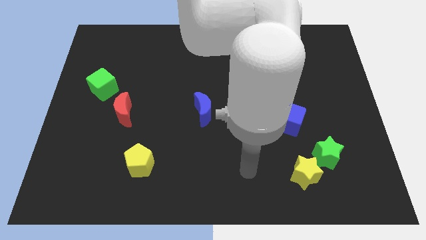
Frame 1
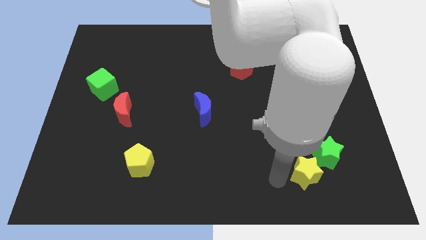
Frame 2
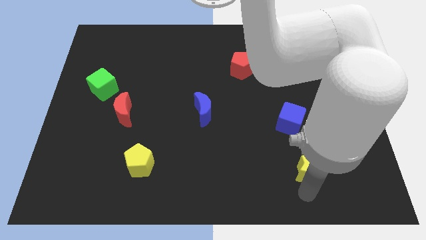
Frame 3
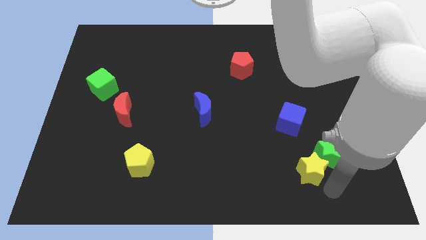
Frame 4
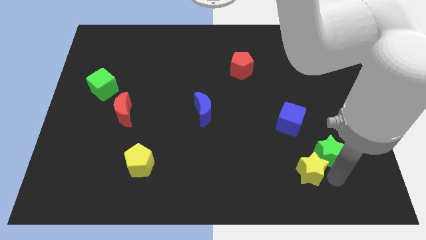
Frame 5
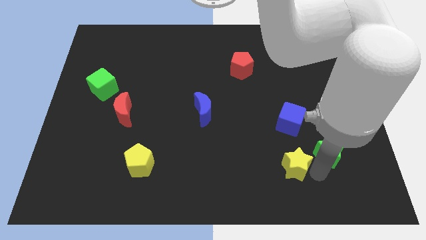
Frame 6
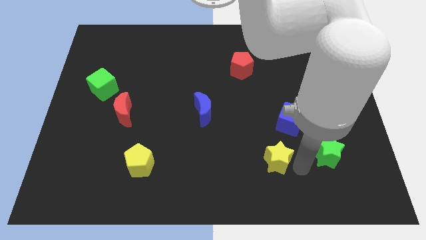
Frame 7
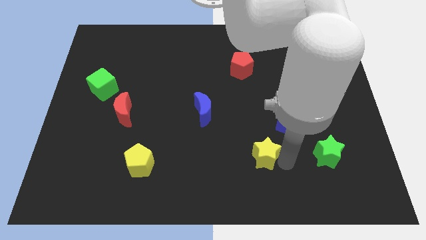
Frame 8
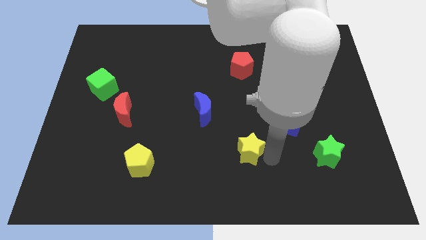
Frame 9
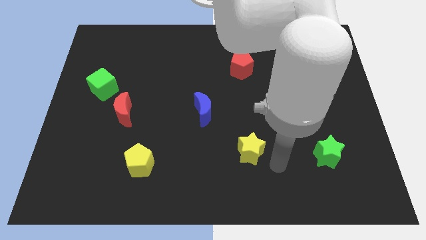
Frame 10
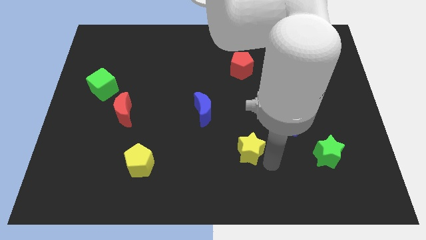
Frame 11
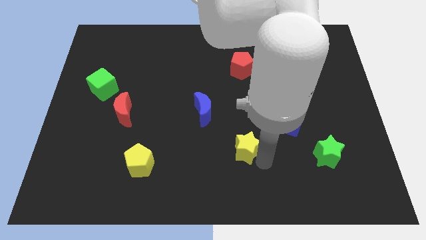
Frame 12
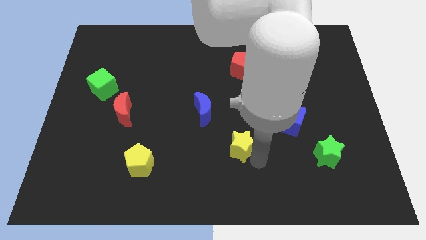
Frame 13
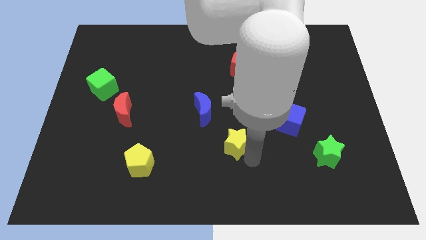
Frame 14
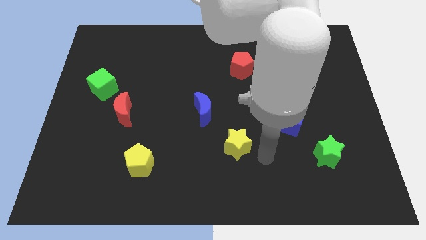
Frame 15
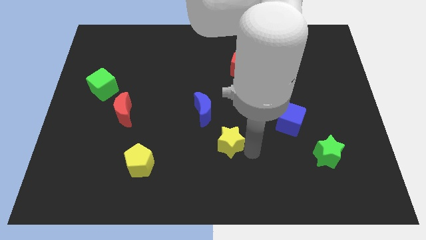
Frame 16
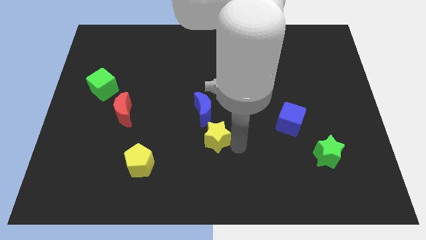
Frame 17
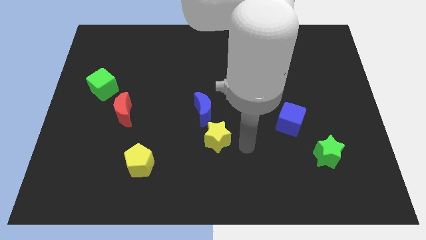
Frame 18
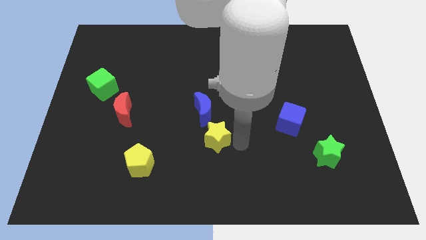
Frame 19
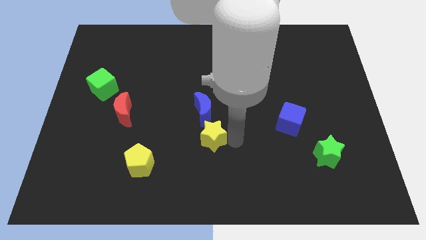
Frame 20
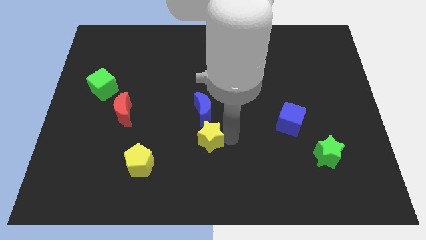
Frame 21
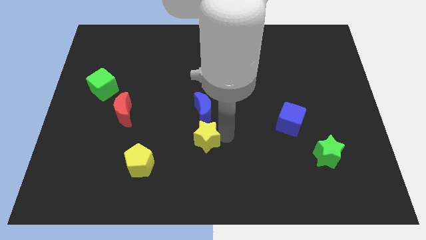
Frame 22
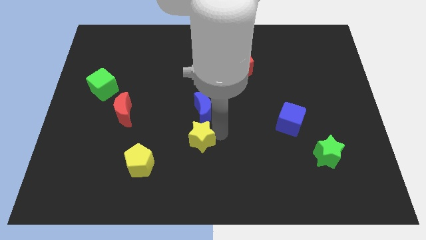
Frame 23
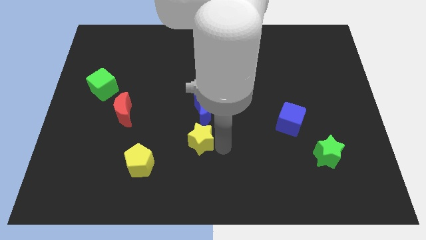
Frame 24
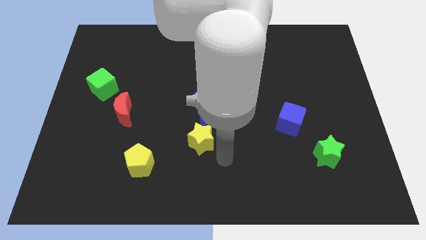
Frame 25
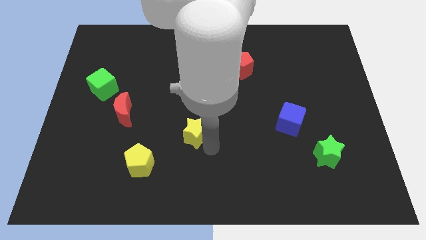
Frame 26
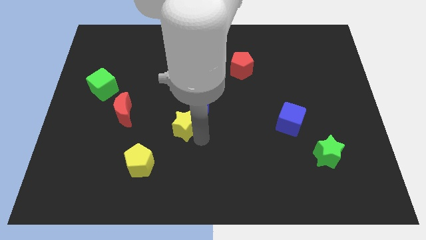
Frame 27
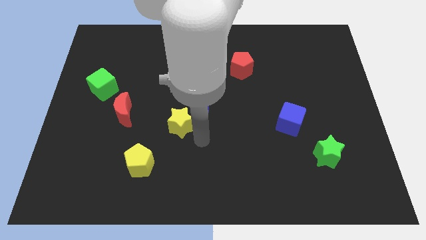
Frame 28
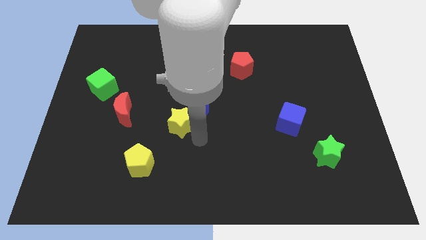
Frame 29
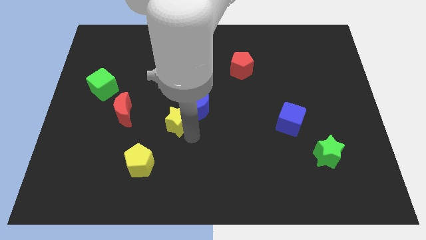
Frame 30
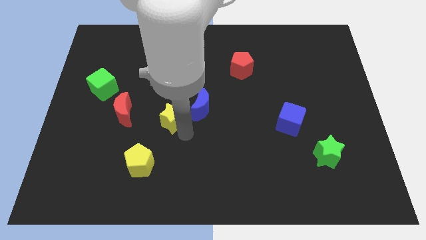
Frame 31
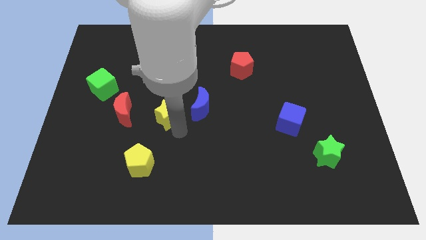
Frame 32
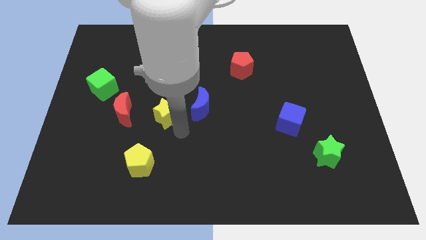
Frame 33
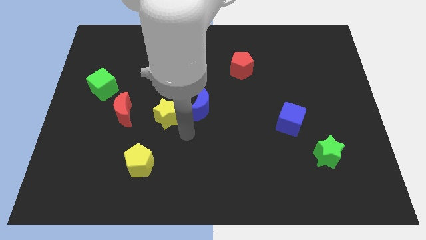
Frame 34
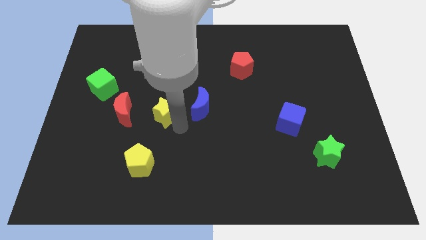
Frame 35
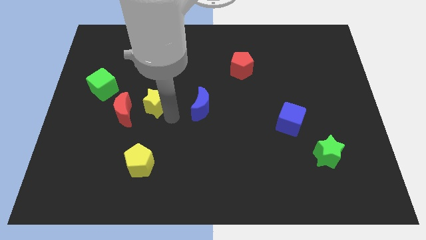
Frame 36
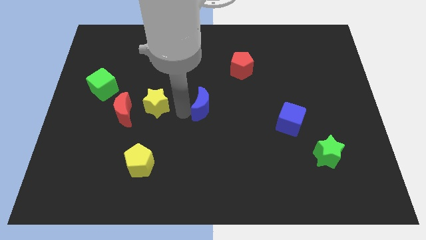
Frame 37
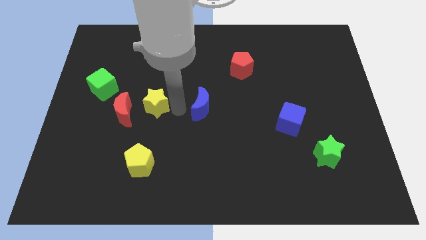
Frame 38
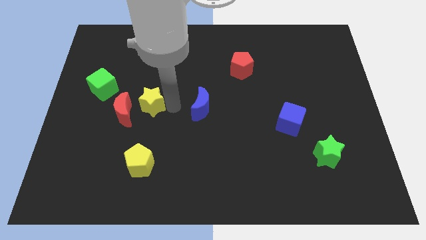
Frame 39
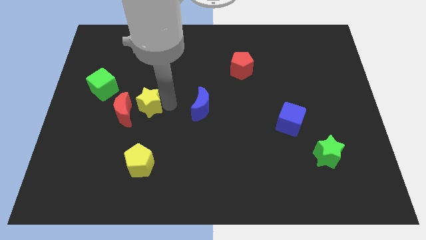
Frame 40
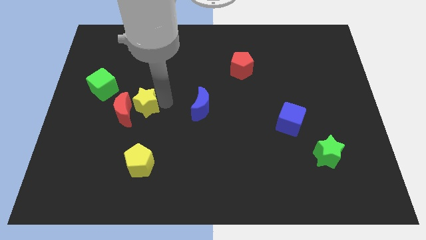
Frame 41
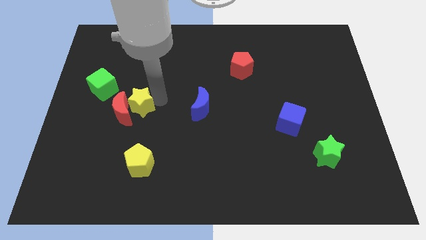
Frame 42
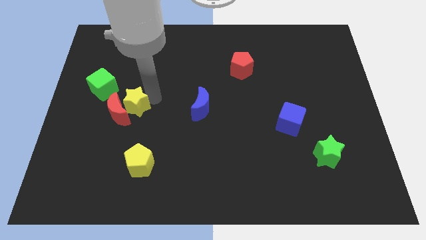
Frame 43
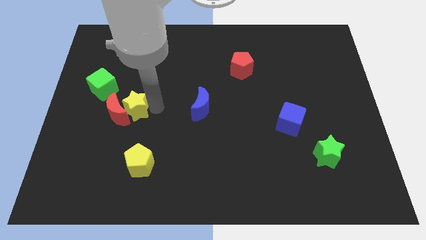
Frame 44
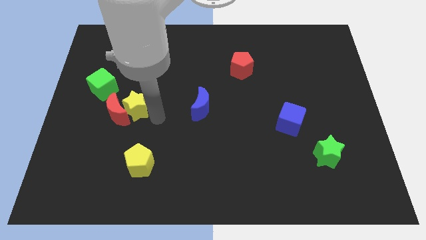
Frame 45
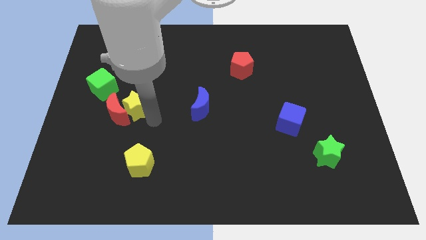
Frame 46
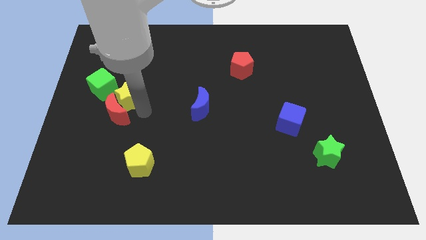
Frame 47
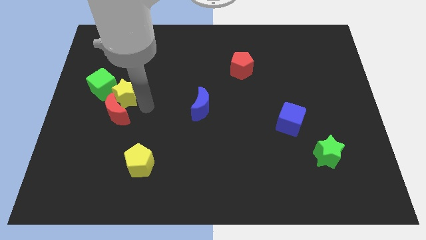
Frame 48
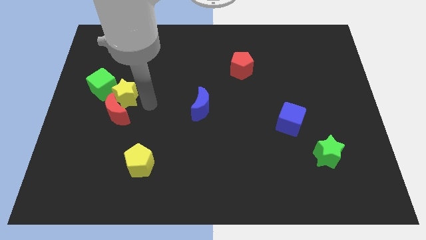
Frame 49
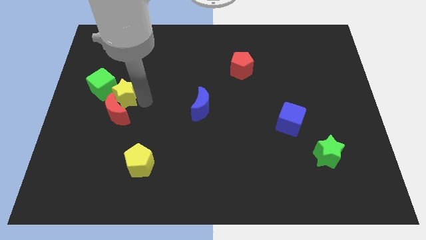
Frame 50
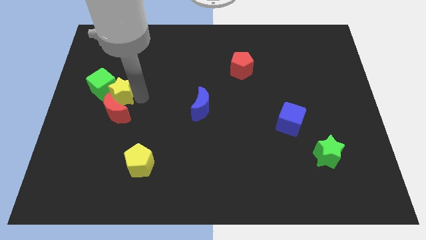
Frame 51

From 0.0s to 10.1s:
slide the yellow star to the green cube

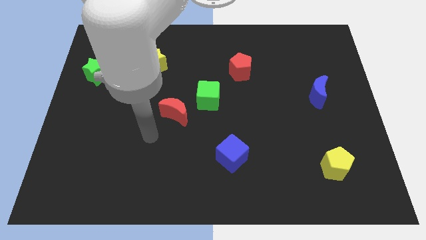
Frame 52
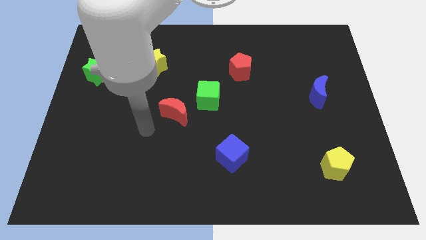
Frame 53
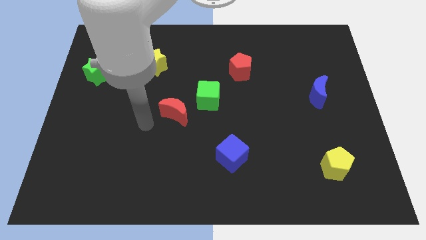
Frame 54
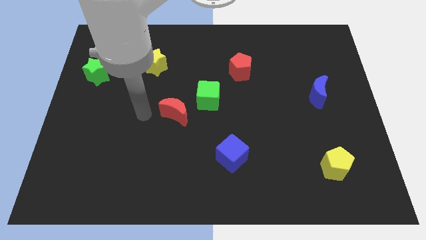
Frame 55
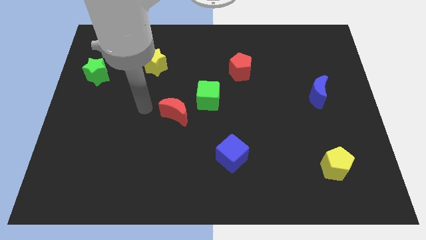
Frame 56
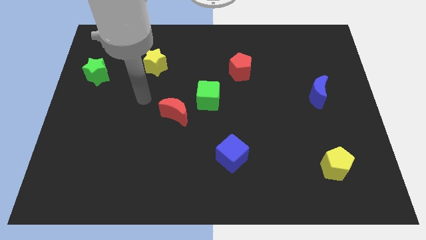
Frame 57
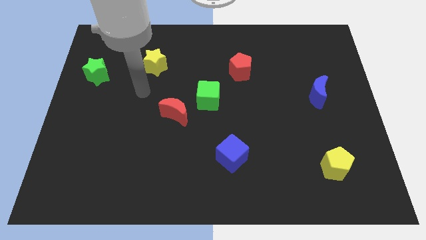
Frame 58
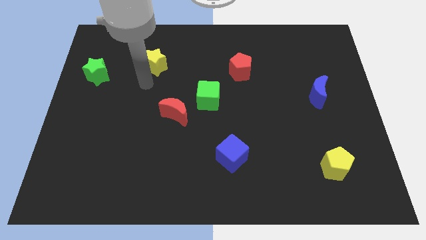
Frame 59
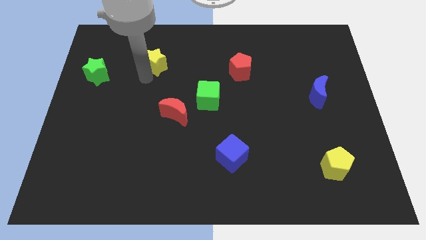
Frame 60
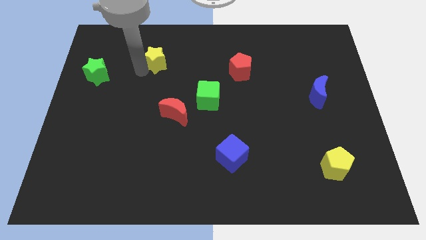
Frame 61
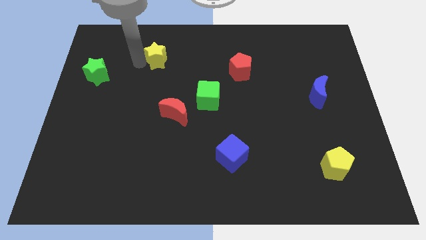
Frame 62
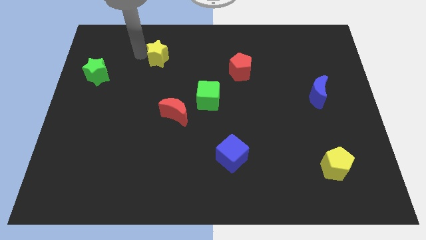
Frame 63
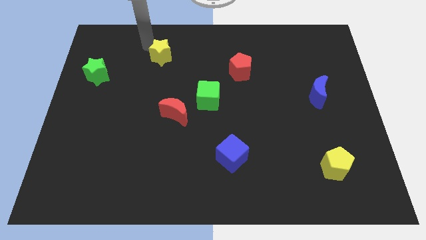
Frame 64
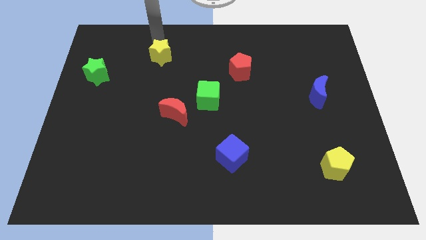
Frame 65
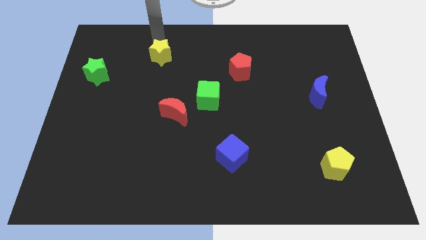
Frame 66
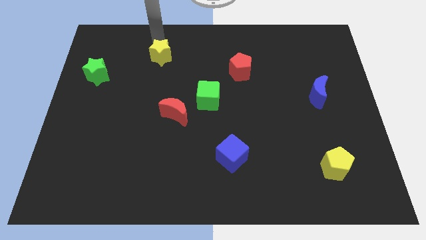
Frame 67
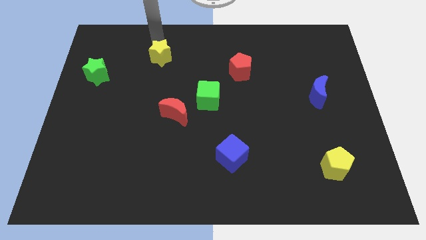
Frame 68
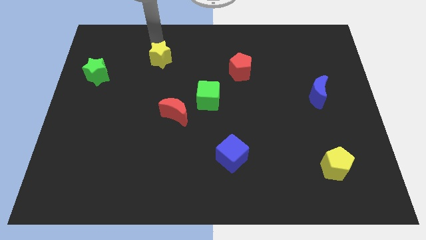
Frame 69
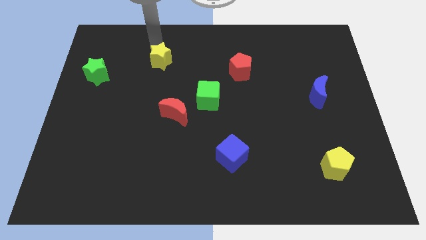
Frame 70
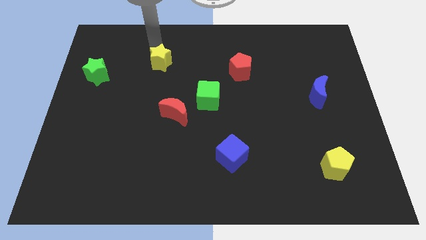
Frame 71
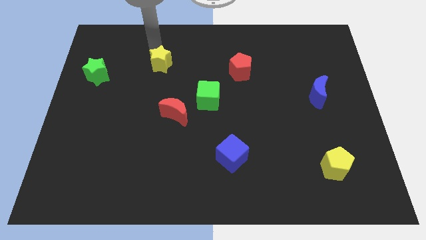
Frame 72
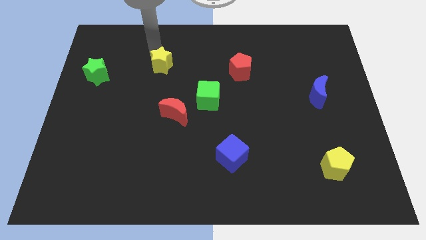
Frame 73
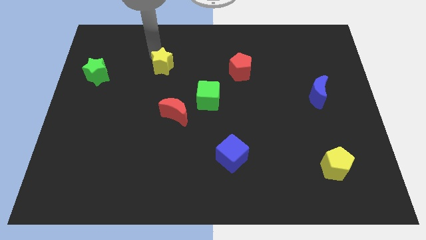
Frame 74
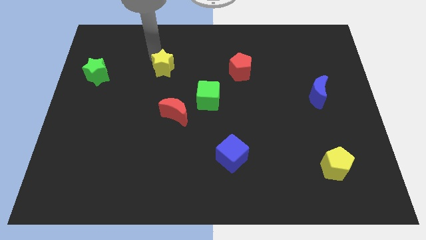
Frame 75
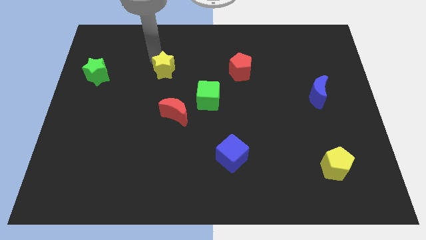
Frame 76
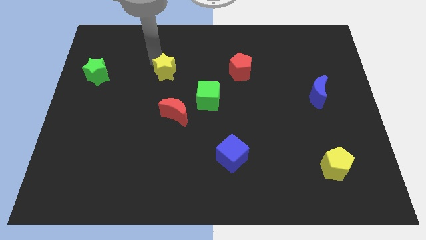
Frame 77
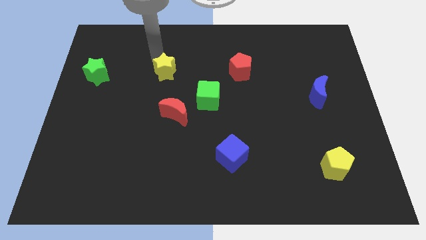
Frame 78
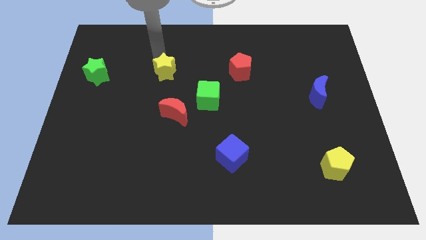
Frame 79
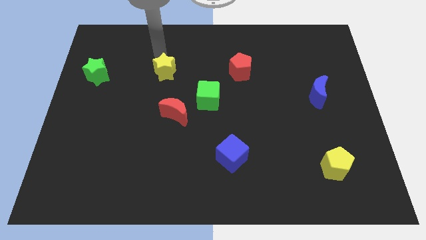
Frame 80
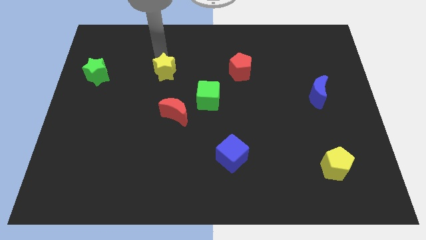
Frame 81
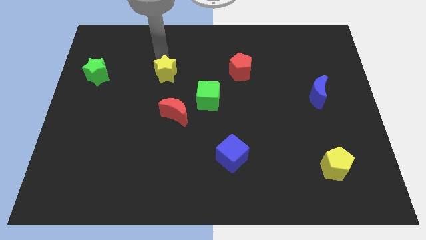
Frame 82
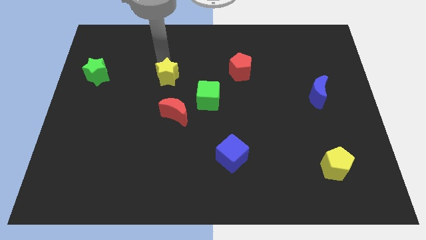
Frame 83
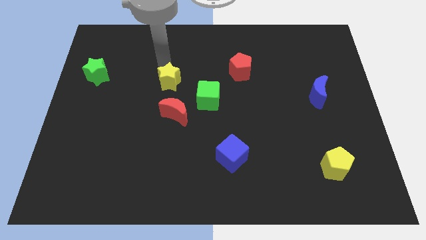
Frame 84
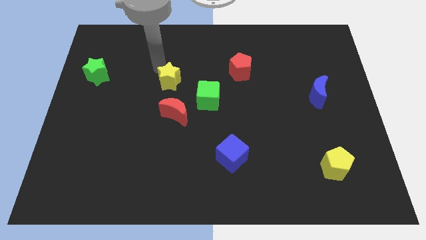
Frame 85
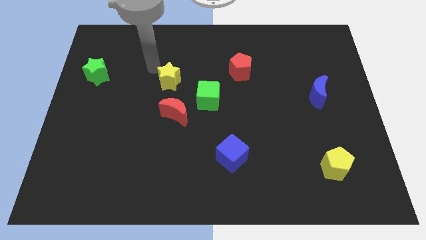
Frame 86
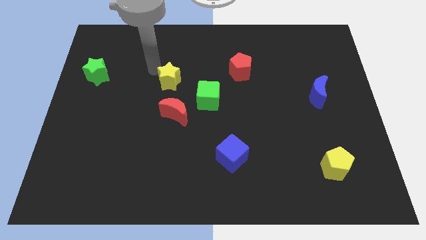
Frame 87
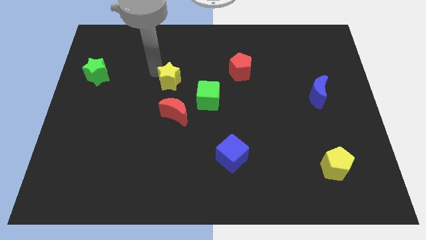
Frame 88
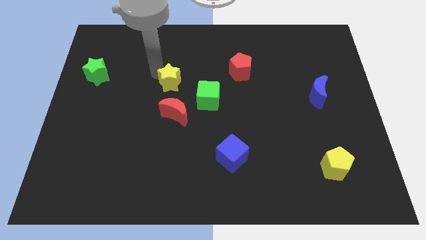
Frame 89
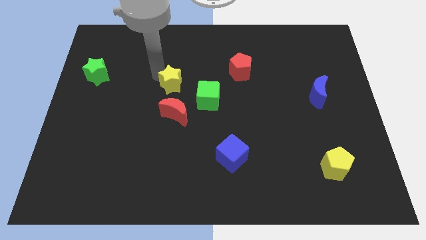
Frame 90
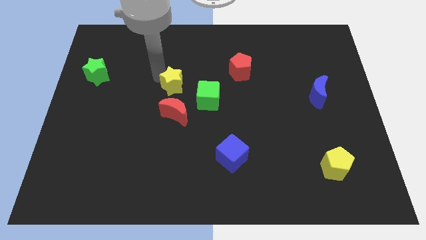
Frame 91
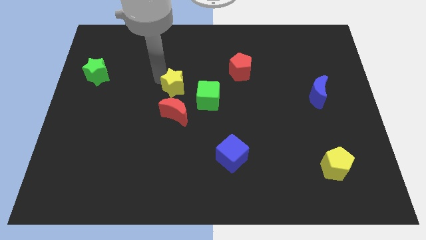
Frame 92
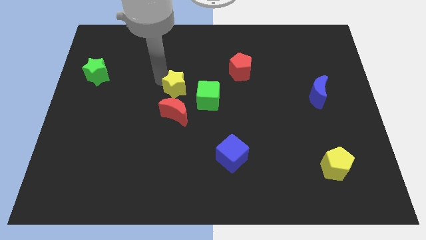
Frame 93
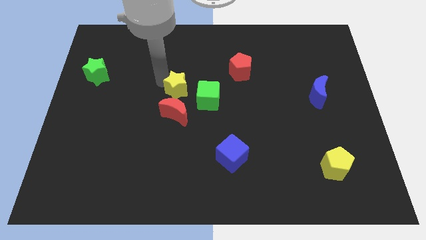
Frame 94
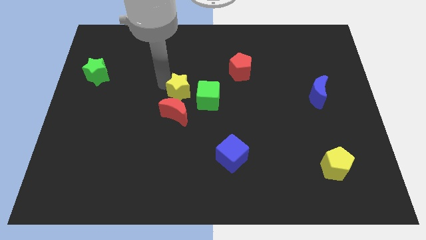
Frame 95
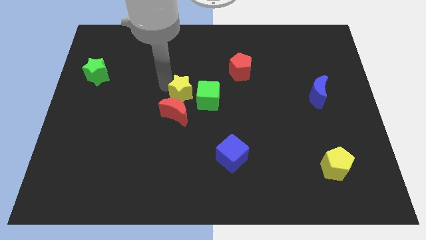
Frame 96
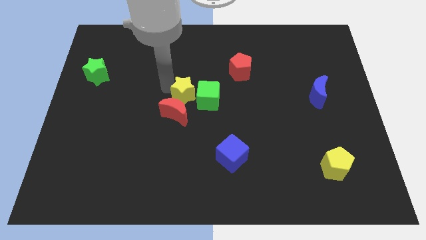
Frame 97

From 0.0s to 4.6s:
slide the yellow star close to the green cube
